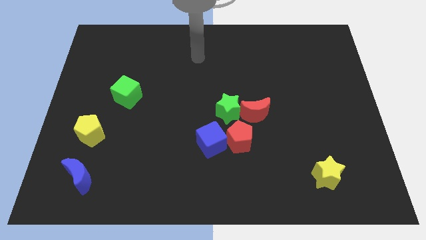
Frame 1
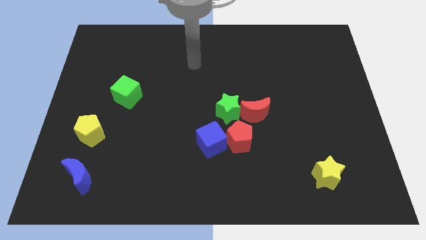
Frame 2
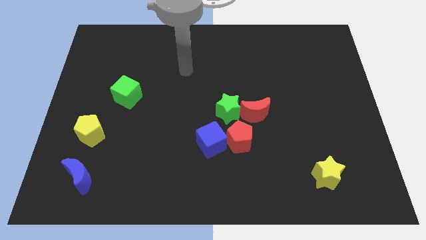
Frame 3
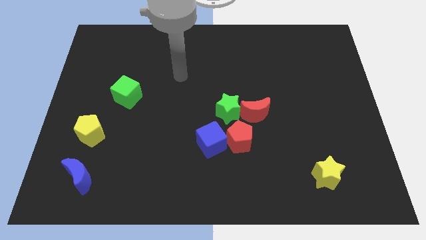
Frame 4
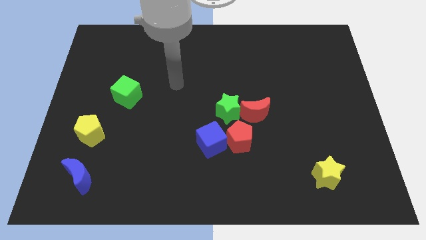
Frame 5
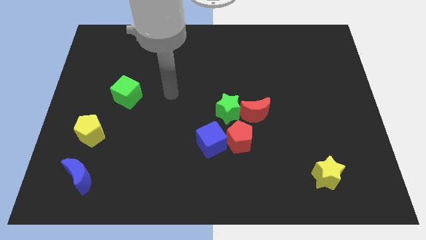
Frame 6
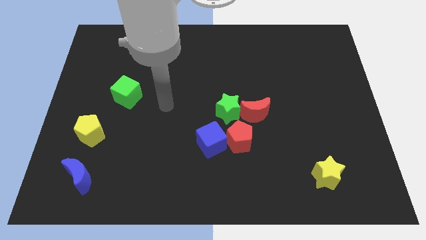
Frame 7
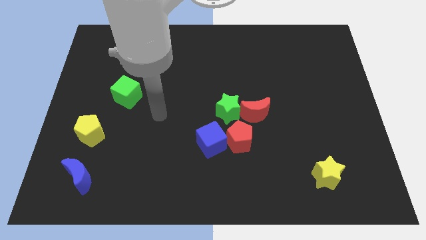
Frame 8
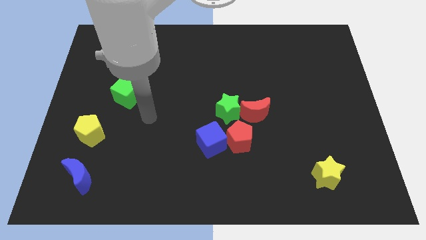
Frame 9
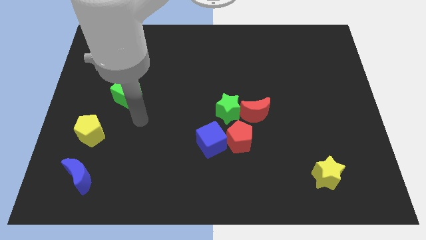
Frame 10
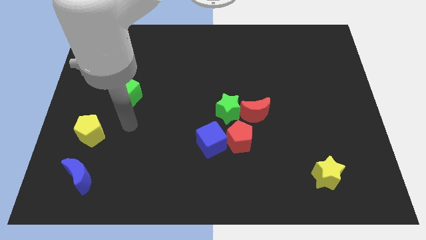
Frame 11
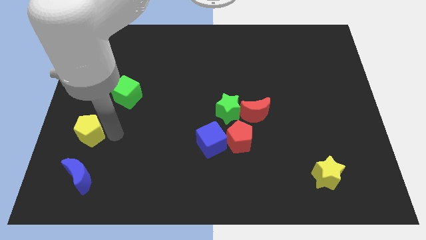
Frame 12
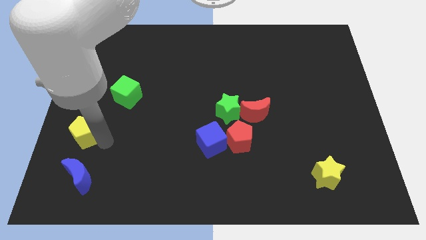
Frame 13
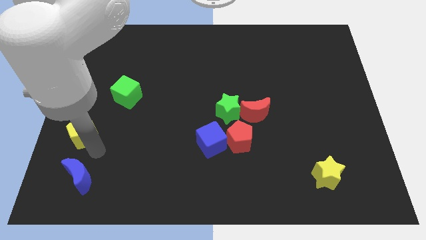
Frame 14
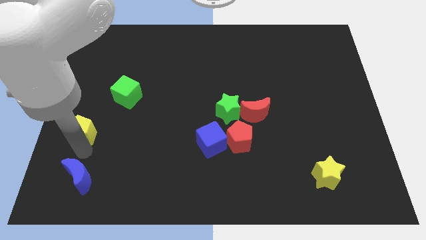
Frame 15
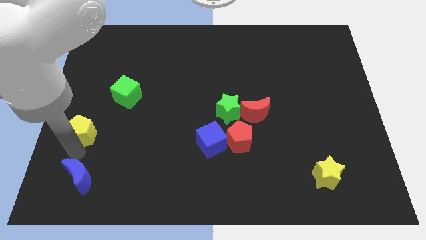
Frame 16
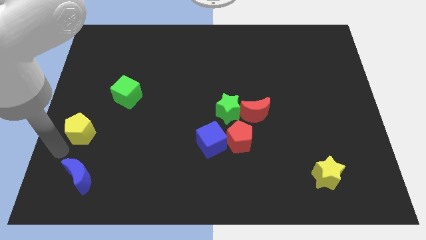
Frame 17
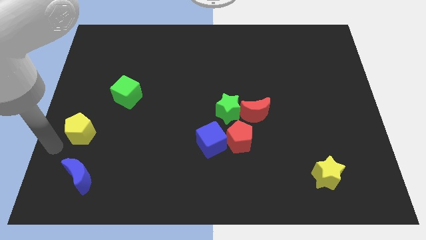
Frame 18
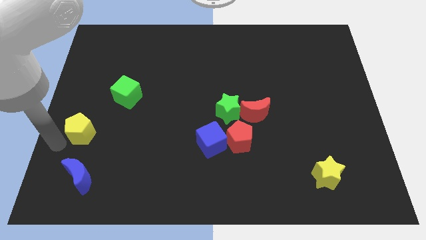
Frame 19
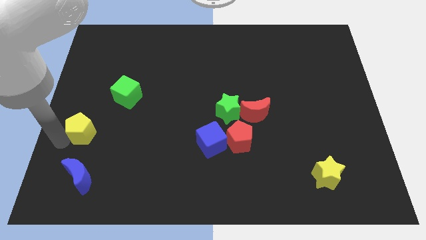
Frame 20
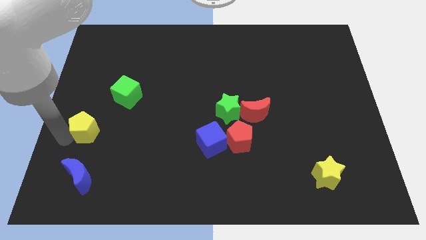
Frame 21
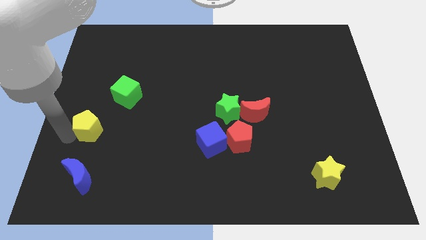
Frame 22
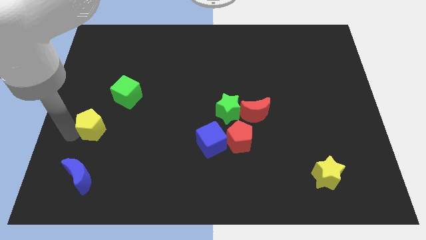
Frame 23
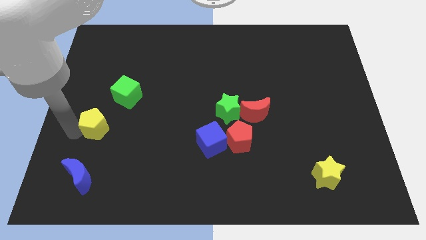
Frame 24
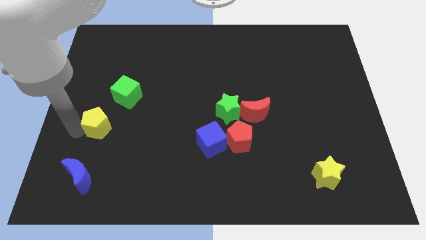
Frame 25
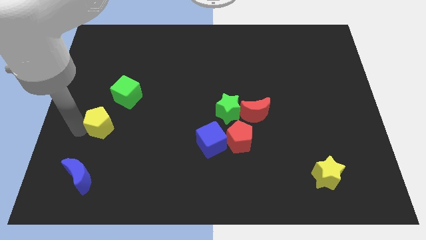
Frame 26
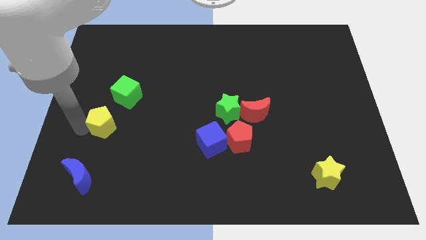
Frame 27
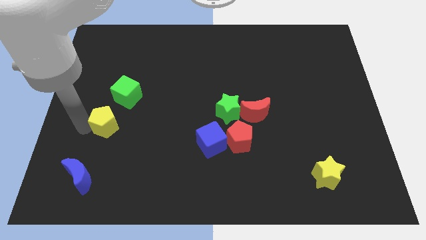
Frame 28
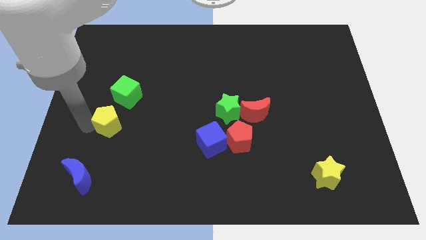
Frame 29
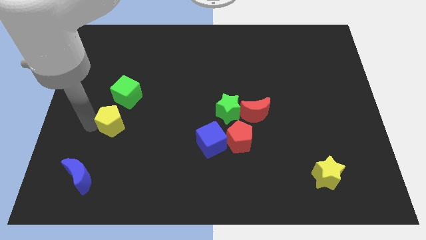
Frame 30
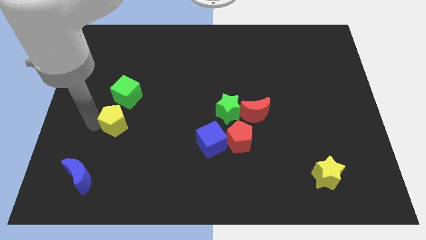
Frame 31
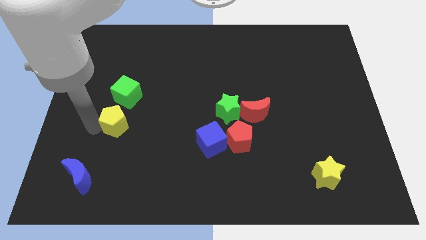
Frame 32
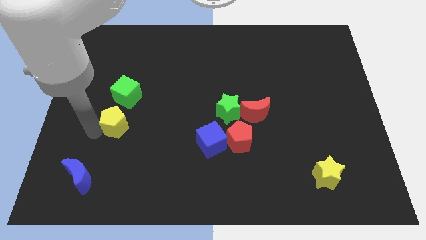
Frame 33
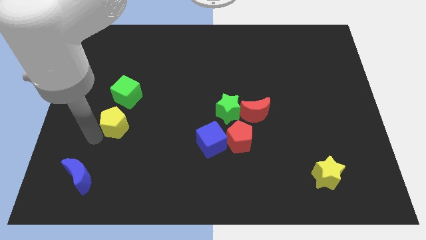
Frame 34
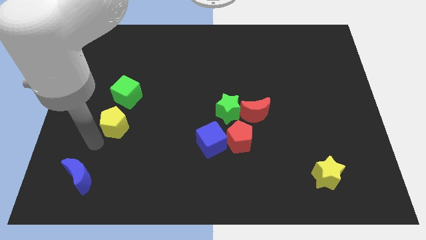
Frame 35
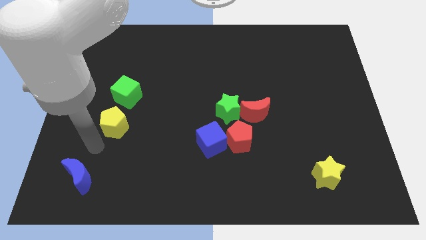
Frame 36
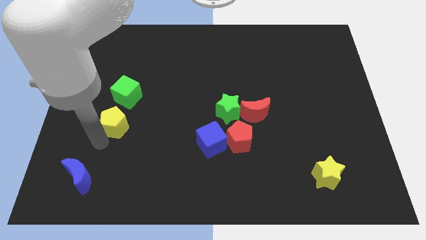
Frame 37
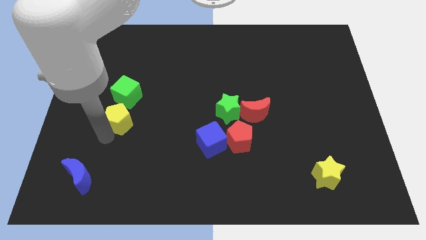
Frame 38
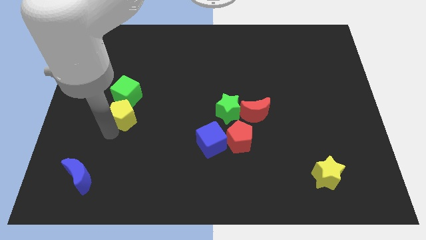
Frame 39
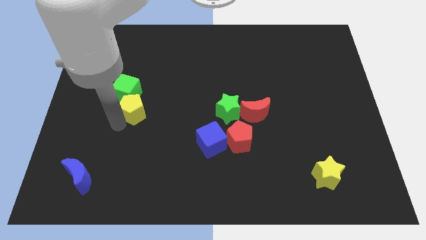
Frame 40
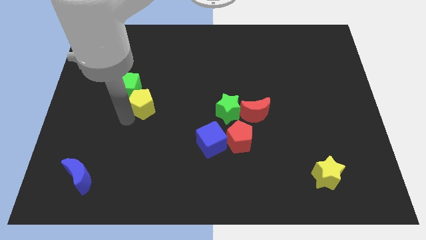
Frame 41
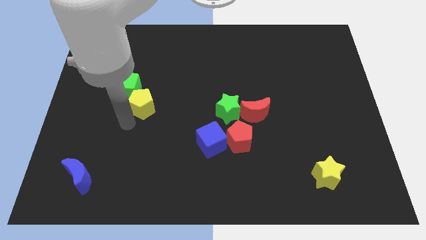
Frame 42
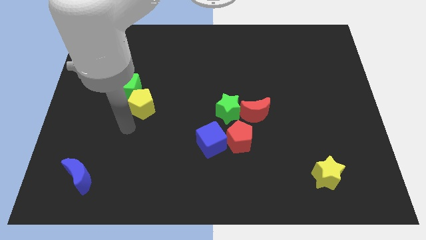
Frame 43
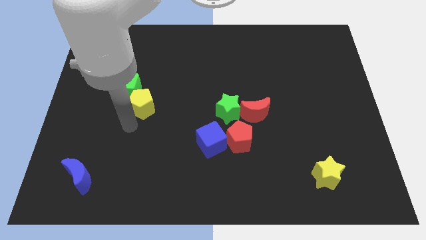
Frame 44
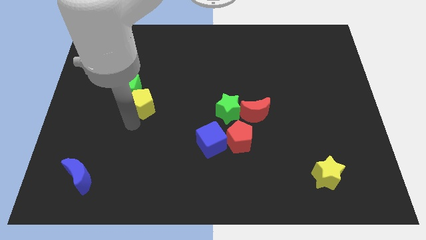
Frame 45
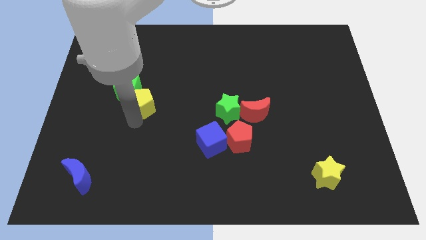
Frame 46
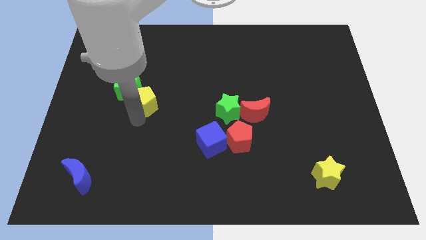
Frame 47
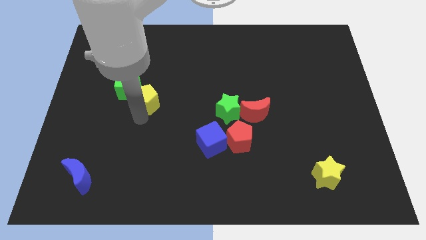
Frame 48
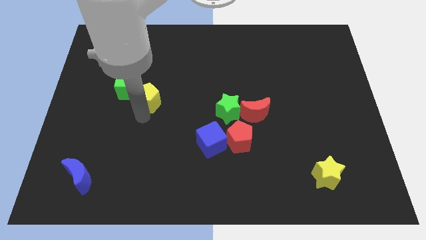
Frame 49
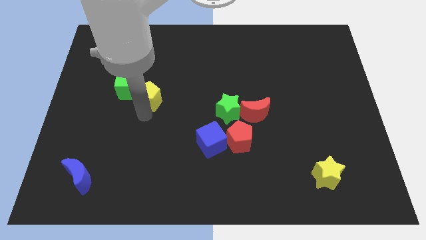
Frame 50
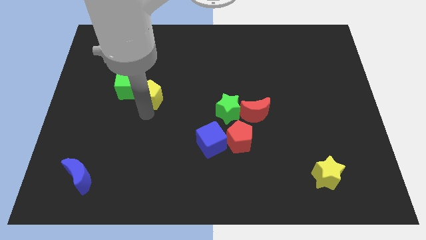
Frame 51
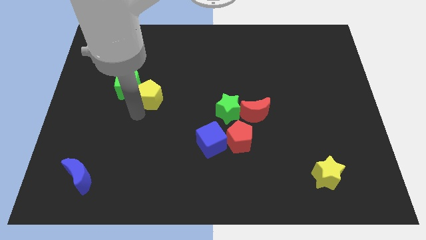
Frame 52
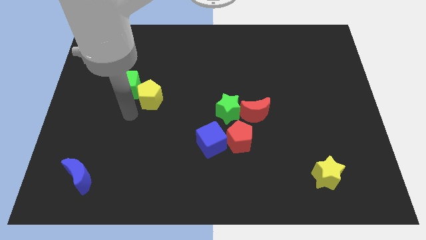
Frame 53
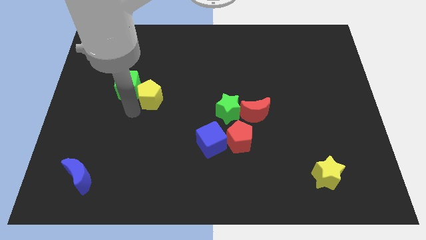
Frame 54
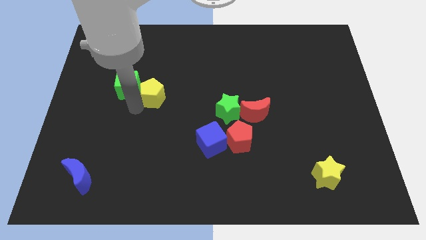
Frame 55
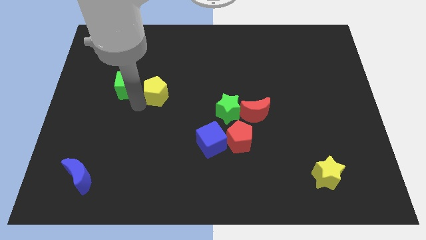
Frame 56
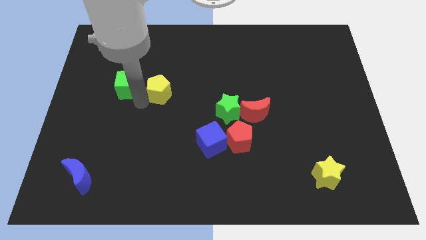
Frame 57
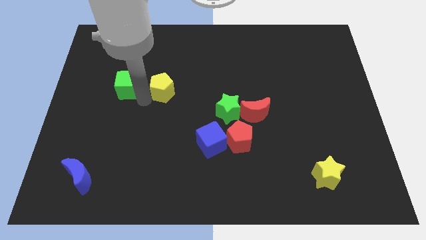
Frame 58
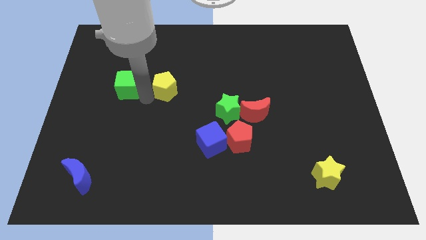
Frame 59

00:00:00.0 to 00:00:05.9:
slide the yellow pentagon diagonally upwards and to the right

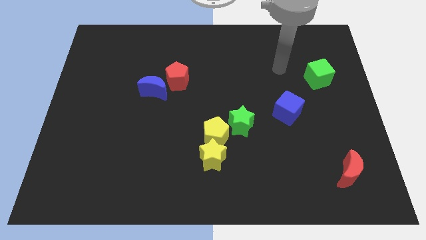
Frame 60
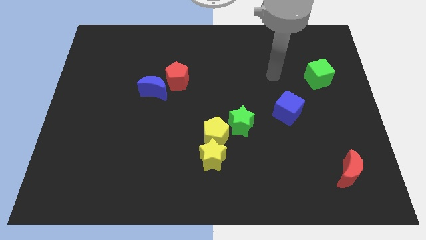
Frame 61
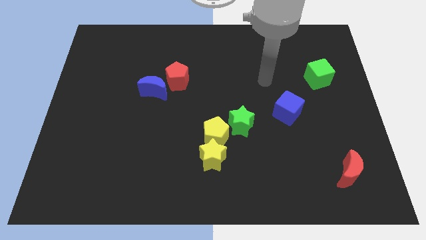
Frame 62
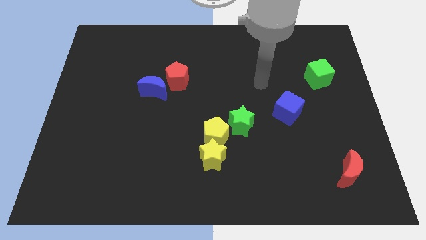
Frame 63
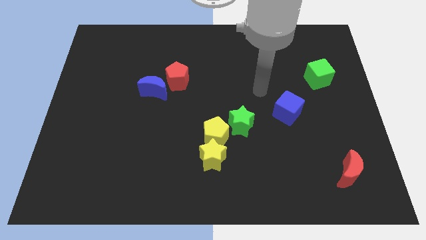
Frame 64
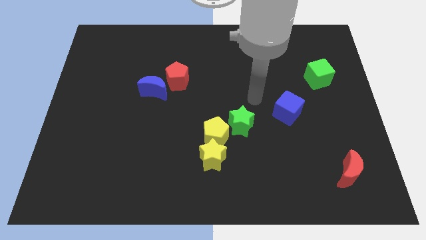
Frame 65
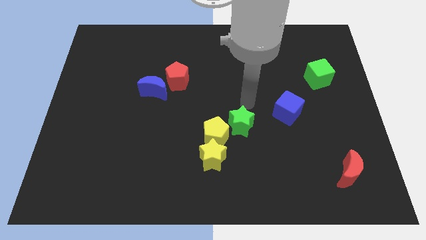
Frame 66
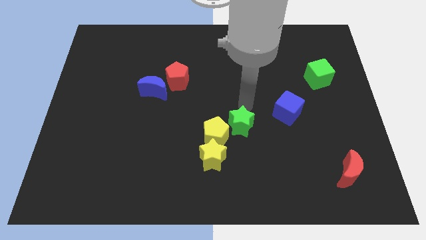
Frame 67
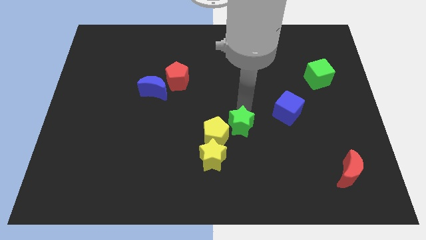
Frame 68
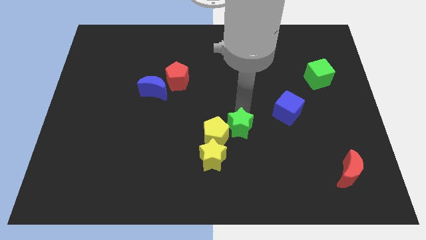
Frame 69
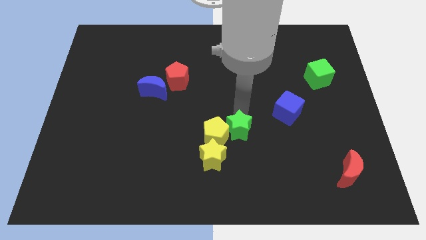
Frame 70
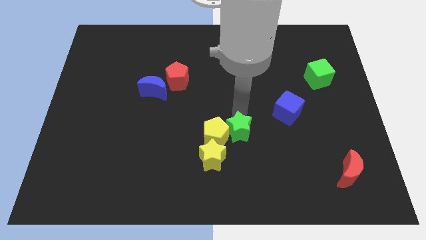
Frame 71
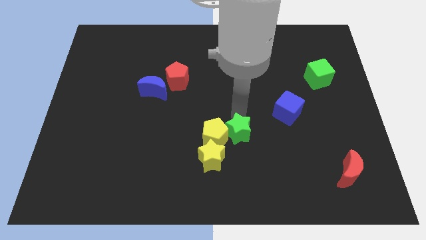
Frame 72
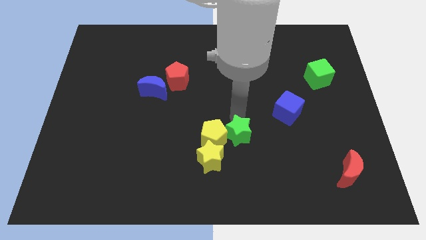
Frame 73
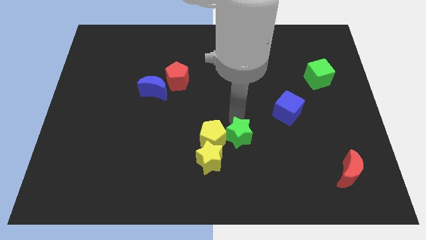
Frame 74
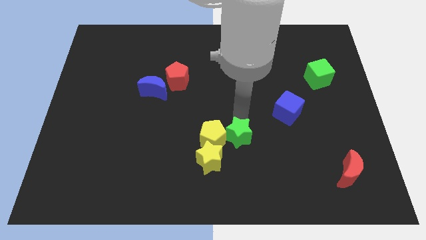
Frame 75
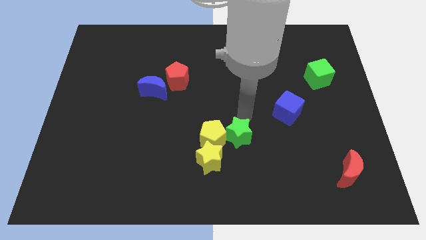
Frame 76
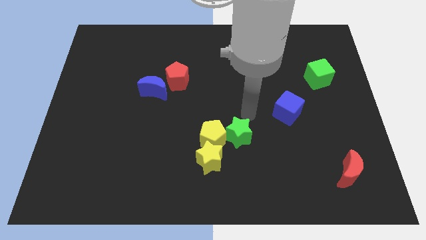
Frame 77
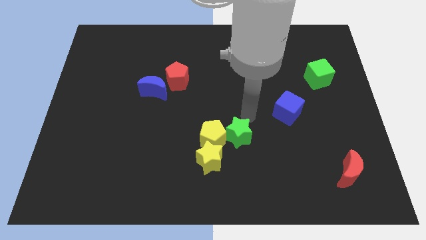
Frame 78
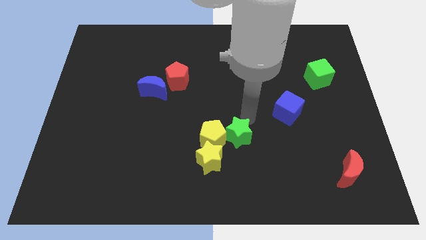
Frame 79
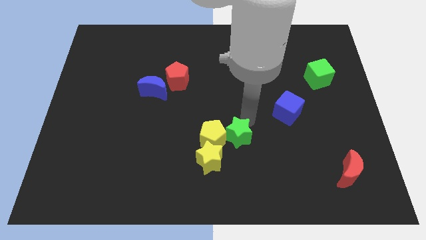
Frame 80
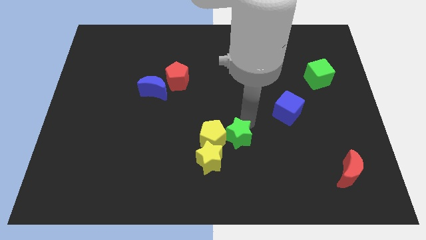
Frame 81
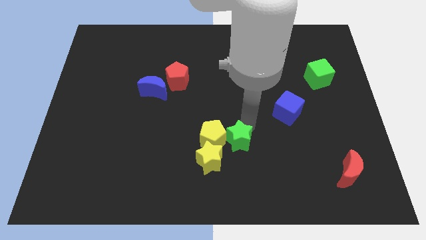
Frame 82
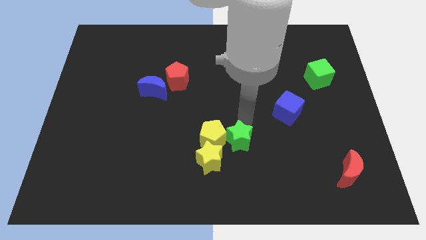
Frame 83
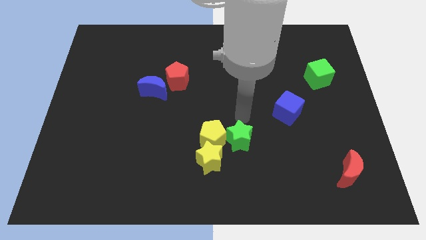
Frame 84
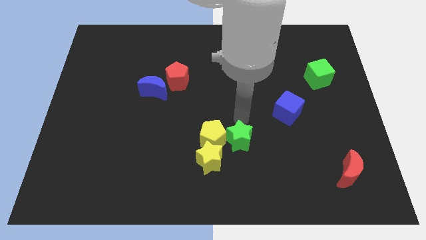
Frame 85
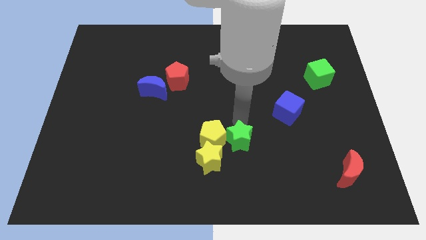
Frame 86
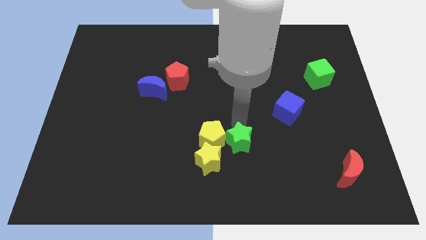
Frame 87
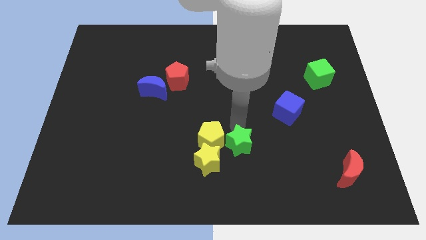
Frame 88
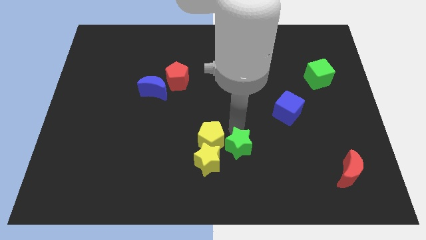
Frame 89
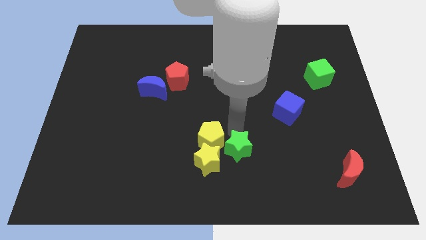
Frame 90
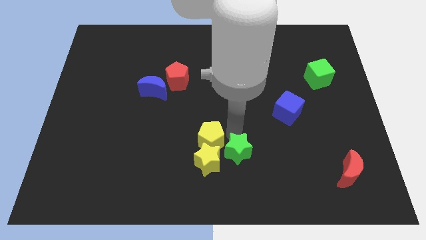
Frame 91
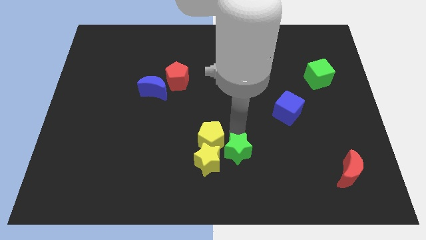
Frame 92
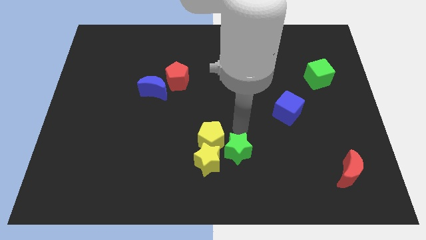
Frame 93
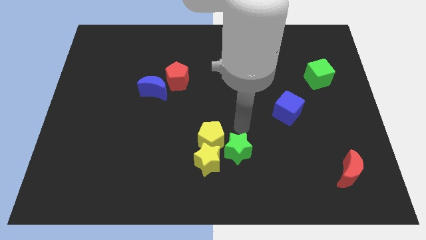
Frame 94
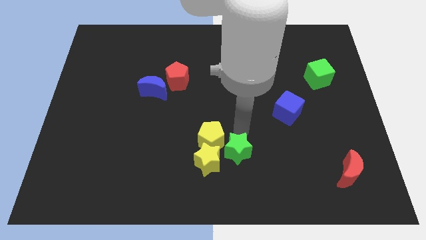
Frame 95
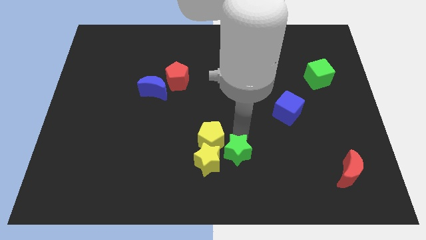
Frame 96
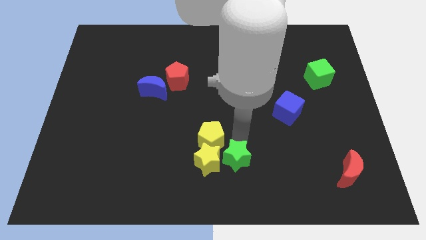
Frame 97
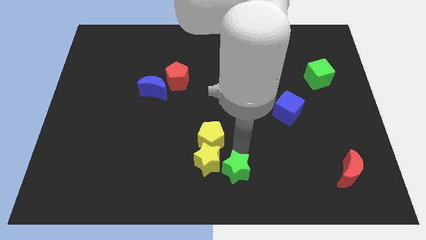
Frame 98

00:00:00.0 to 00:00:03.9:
move the green star down and then to the left a little bit
